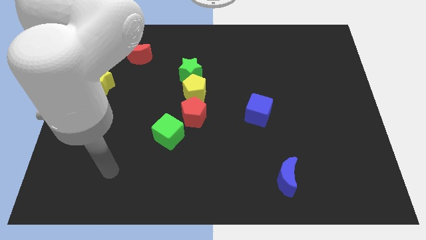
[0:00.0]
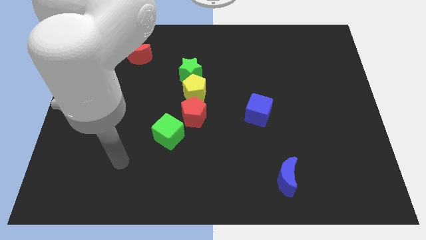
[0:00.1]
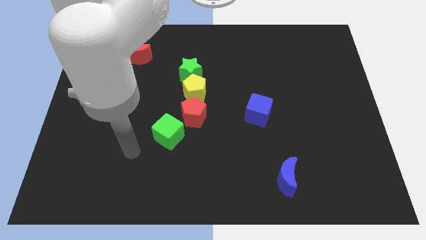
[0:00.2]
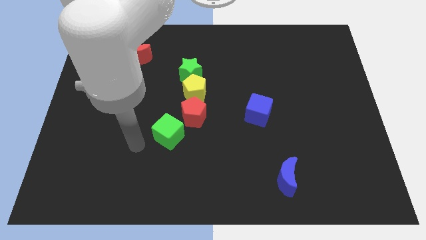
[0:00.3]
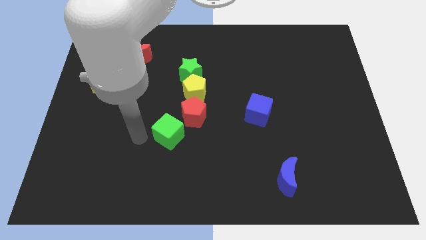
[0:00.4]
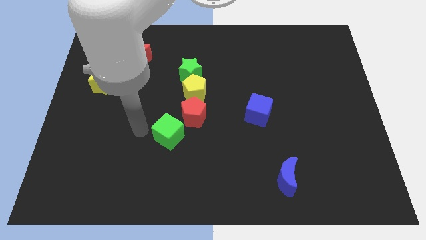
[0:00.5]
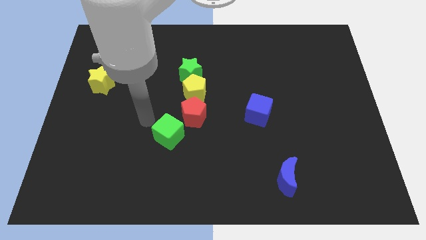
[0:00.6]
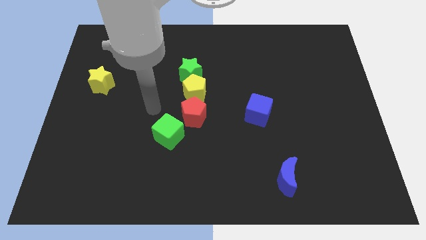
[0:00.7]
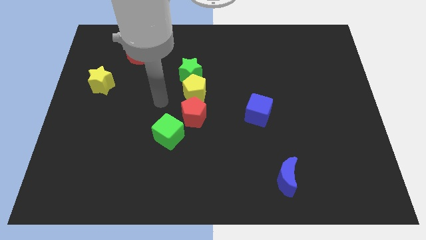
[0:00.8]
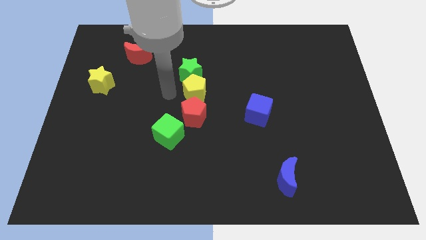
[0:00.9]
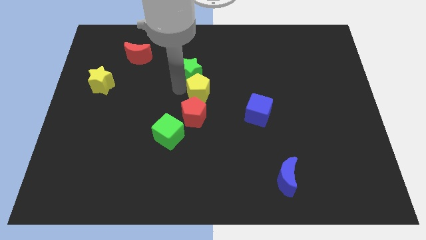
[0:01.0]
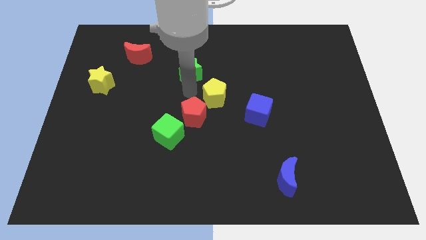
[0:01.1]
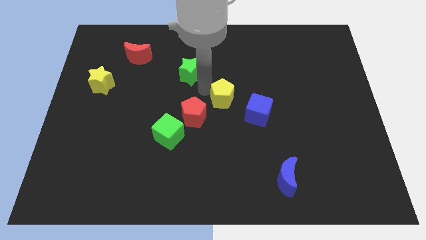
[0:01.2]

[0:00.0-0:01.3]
pull the green star apart from the yellow pentagon

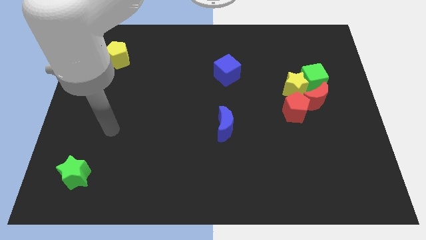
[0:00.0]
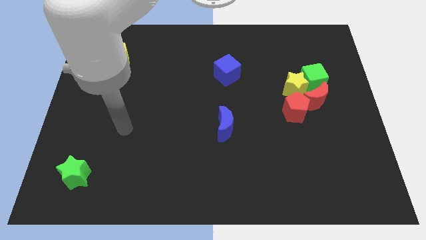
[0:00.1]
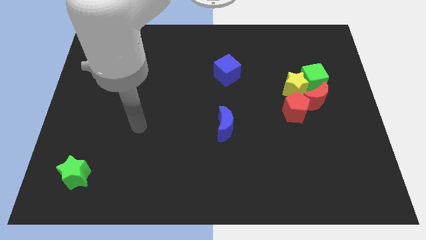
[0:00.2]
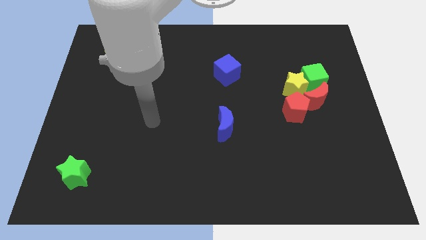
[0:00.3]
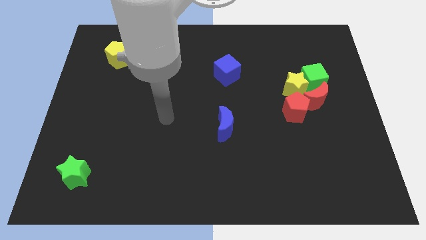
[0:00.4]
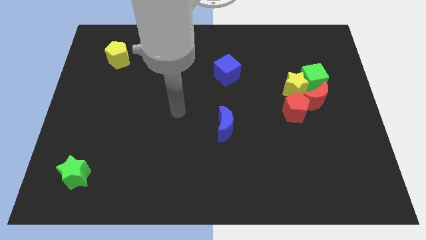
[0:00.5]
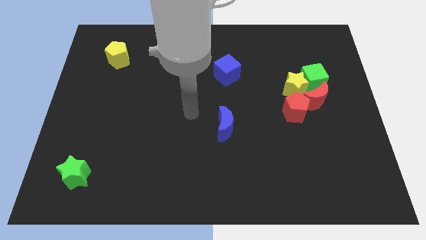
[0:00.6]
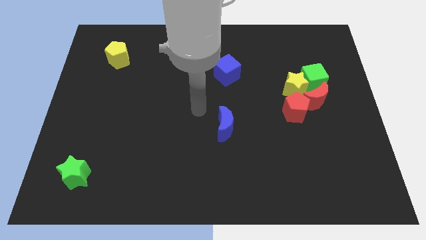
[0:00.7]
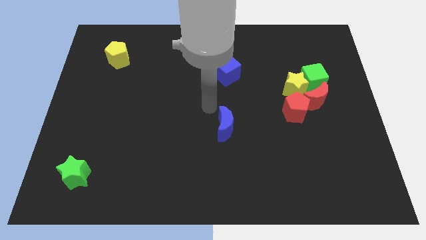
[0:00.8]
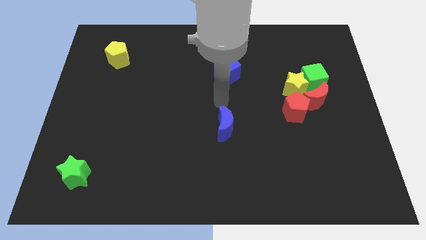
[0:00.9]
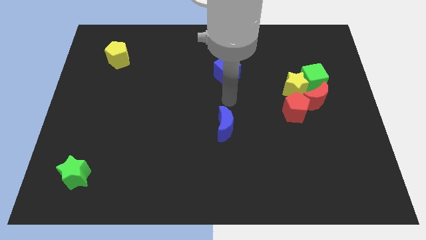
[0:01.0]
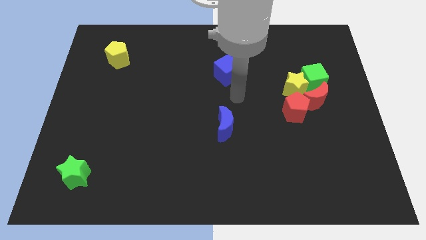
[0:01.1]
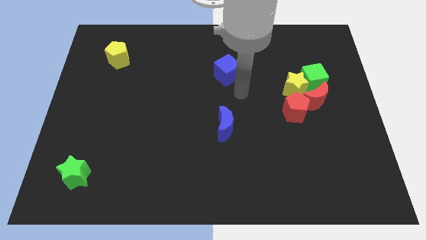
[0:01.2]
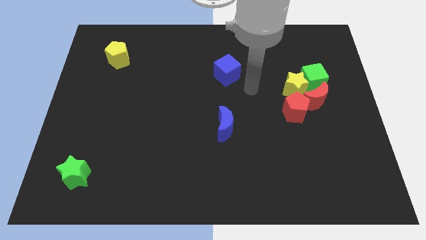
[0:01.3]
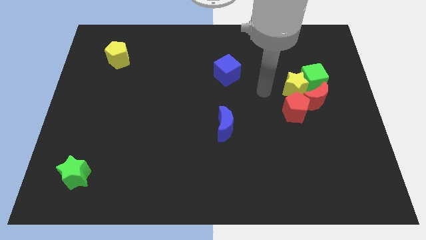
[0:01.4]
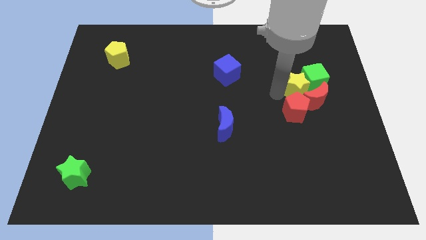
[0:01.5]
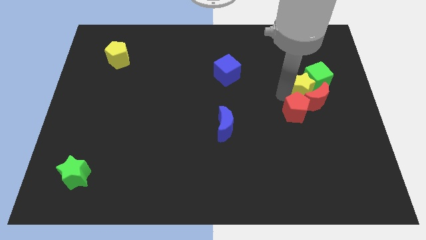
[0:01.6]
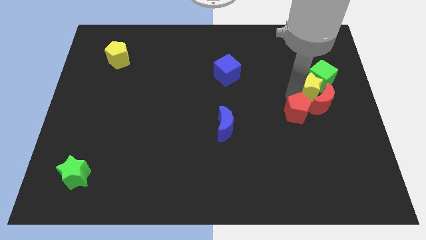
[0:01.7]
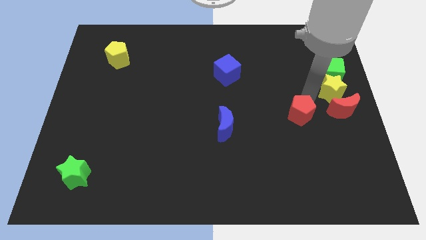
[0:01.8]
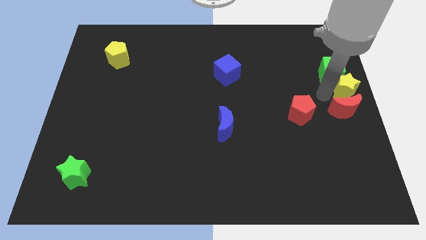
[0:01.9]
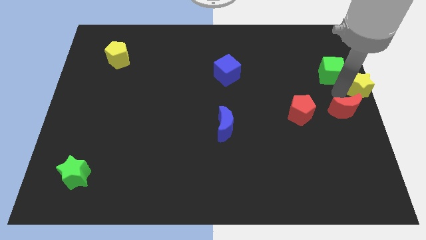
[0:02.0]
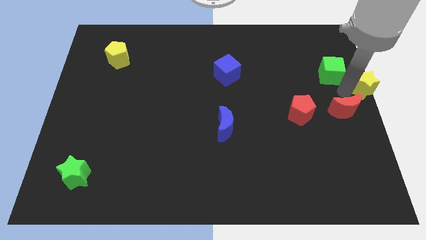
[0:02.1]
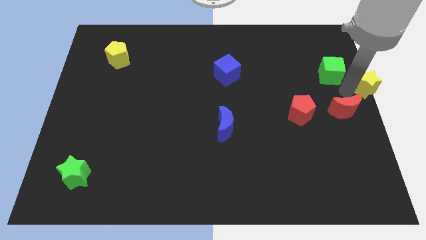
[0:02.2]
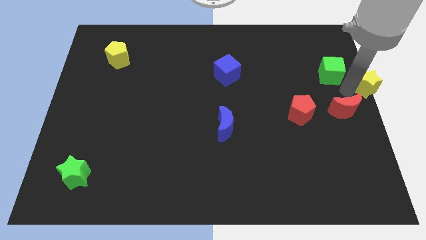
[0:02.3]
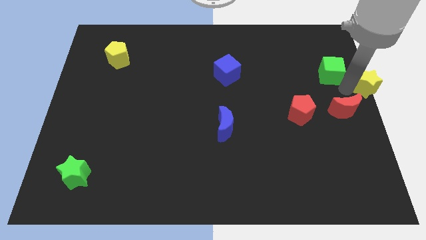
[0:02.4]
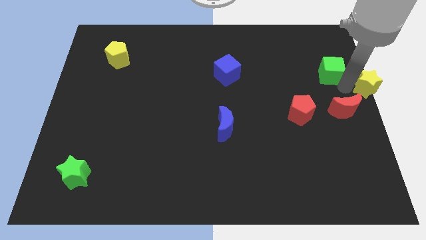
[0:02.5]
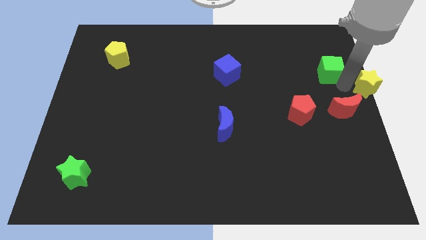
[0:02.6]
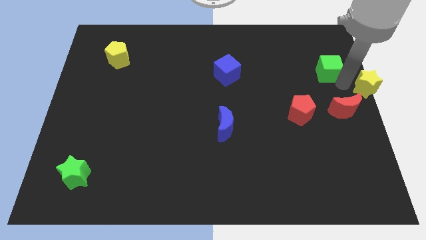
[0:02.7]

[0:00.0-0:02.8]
move the green cube away from the yellow star and red moon

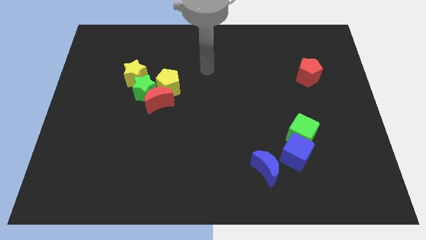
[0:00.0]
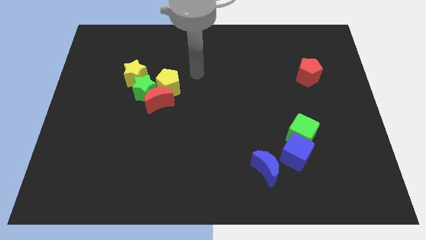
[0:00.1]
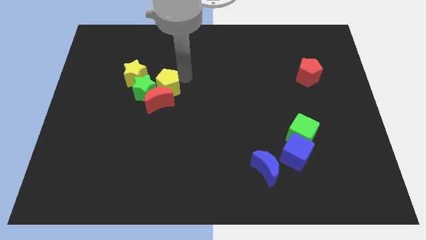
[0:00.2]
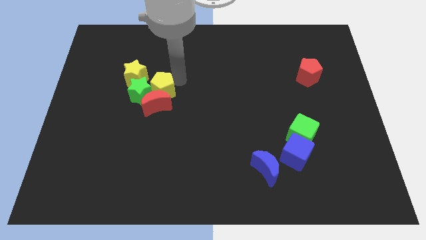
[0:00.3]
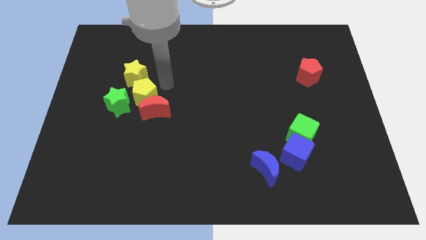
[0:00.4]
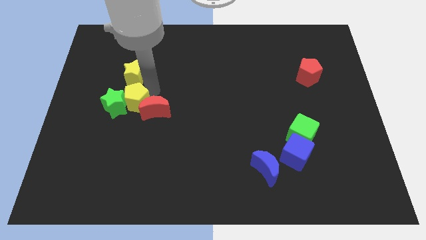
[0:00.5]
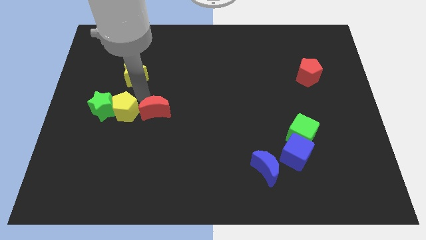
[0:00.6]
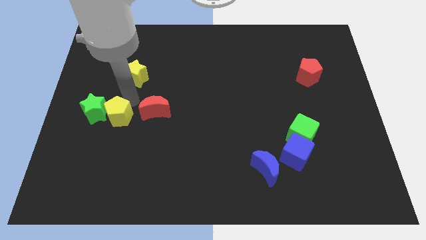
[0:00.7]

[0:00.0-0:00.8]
pull the green star apart from the group

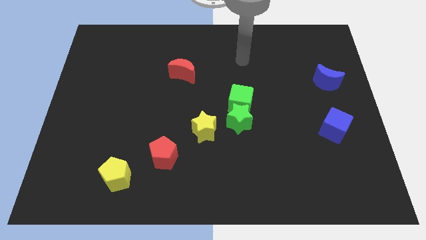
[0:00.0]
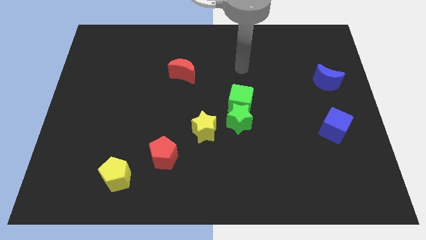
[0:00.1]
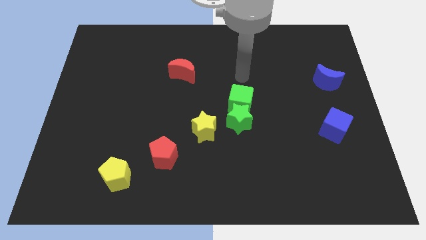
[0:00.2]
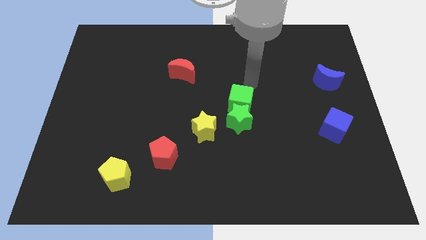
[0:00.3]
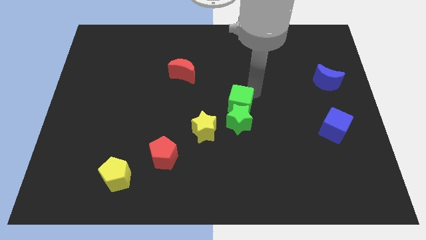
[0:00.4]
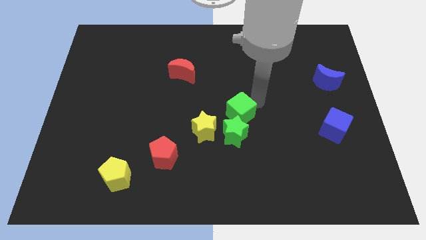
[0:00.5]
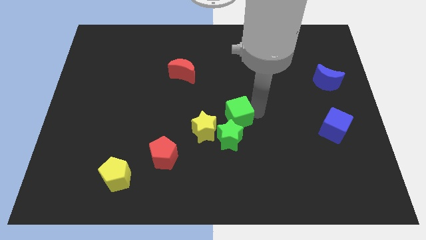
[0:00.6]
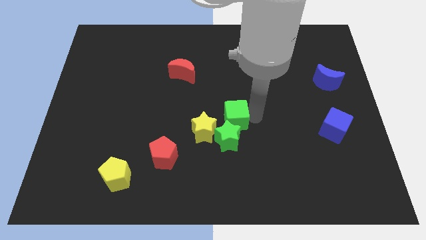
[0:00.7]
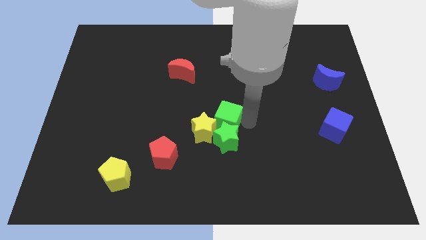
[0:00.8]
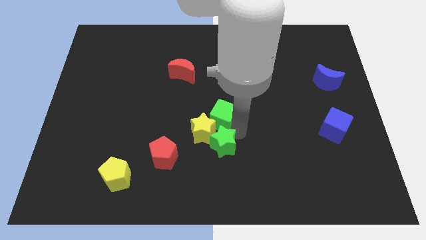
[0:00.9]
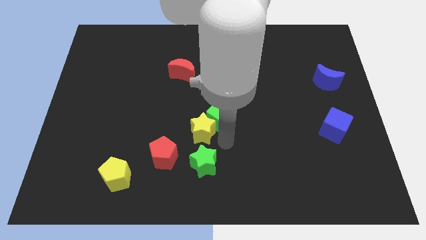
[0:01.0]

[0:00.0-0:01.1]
pull the green cube apart from the green star

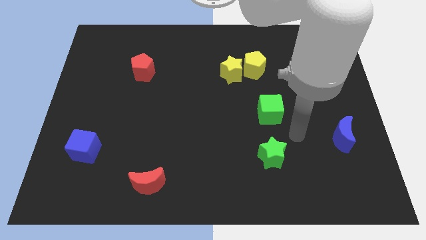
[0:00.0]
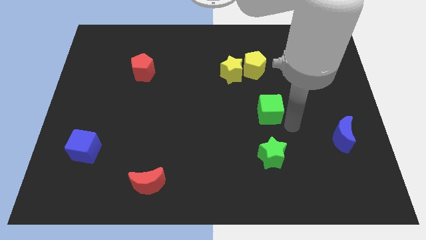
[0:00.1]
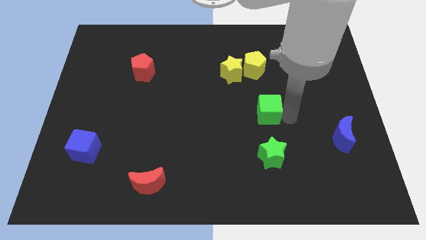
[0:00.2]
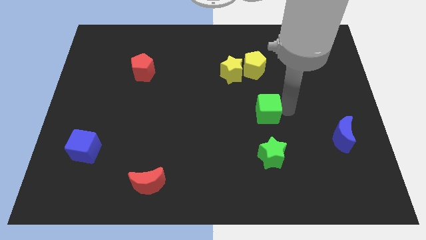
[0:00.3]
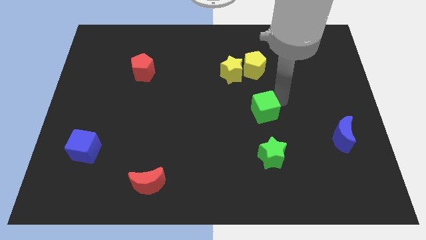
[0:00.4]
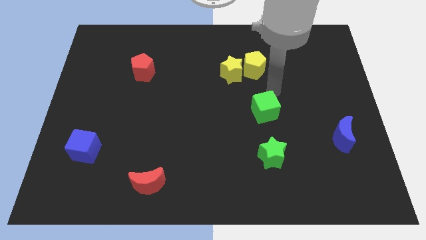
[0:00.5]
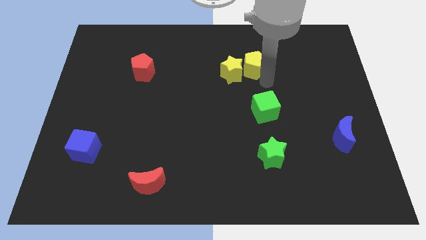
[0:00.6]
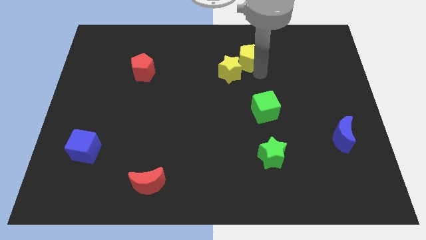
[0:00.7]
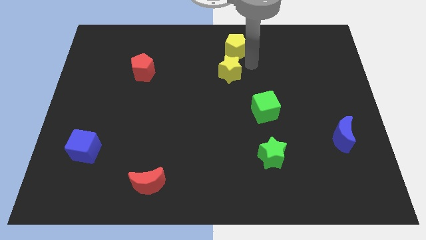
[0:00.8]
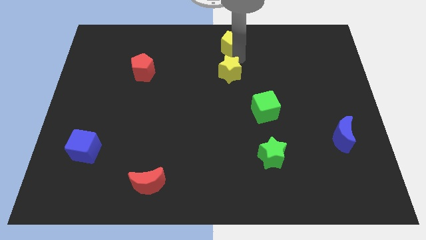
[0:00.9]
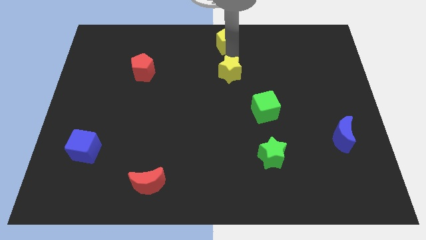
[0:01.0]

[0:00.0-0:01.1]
move the yellow star away from the yellow pentagon

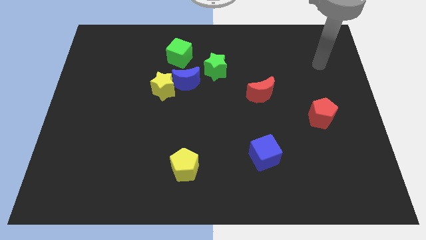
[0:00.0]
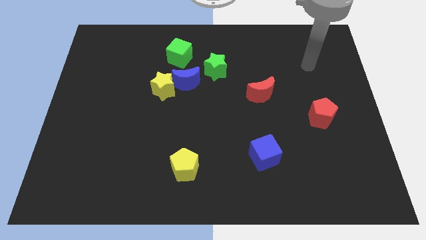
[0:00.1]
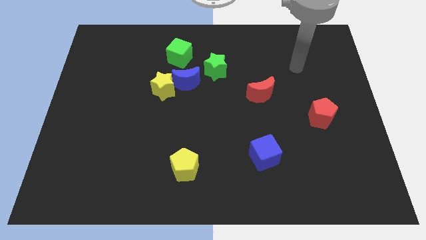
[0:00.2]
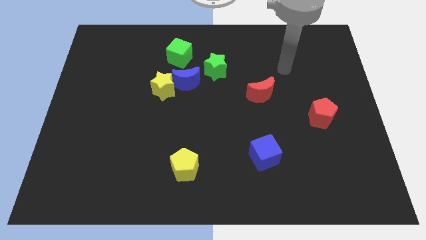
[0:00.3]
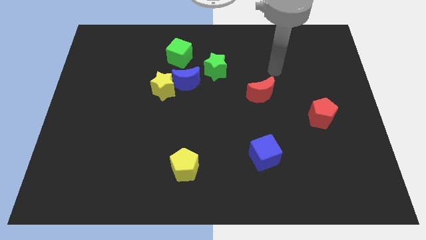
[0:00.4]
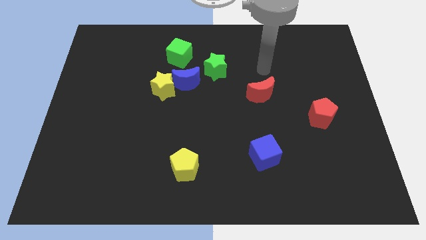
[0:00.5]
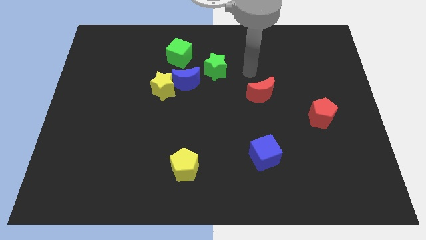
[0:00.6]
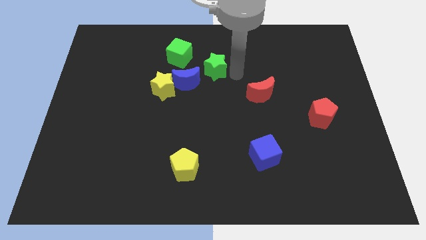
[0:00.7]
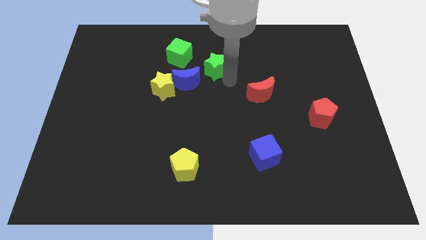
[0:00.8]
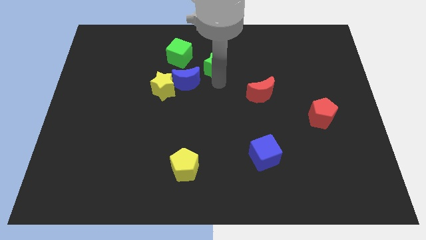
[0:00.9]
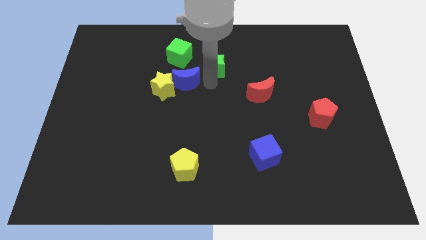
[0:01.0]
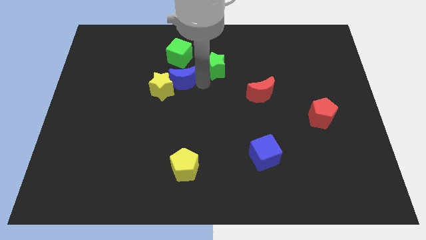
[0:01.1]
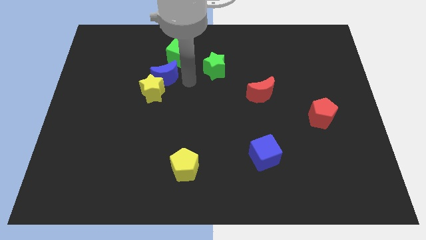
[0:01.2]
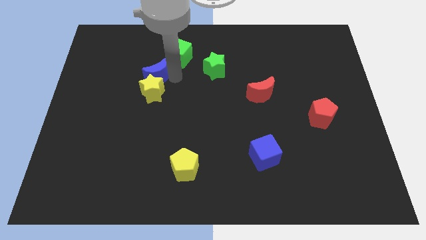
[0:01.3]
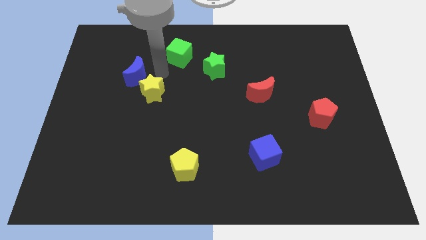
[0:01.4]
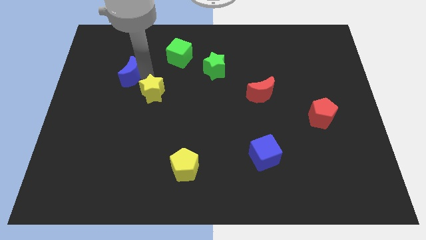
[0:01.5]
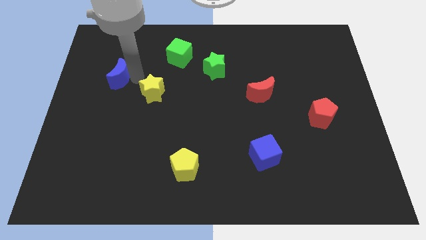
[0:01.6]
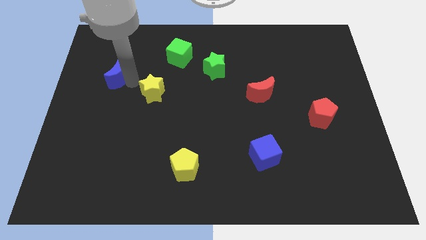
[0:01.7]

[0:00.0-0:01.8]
separate the yellow star from the blue moon

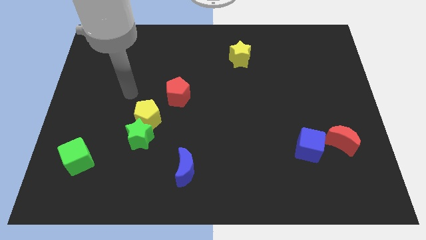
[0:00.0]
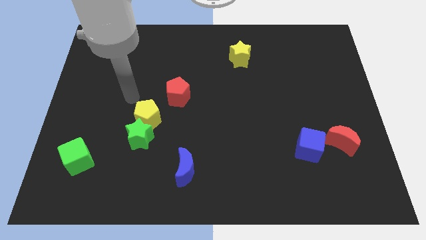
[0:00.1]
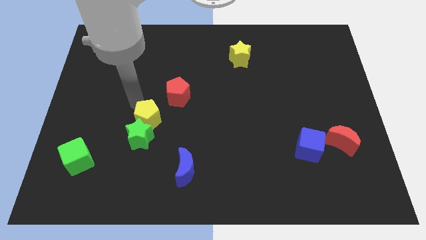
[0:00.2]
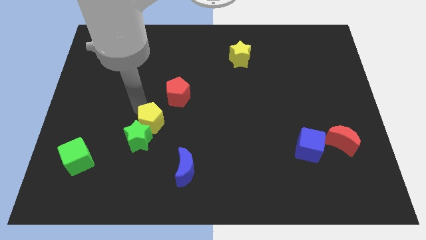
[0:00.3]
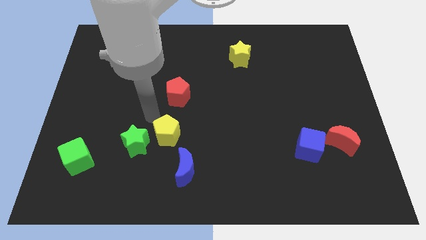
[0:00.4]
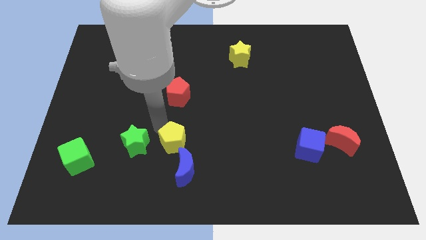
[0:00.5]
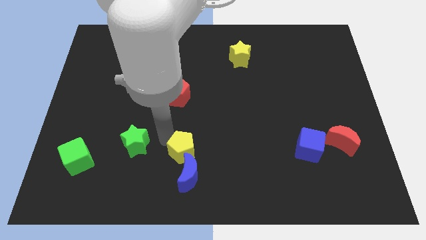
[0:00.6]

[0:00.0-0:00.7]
separate the green star from the yellow pentagon
